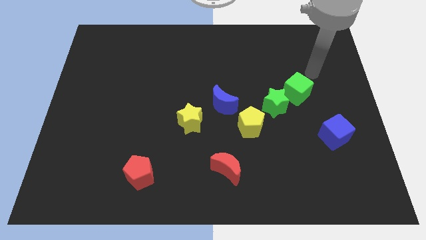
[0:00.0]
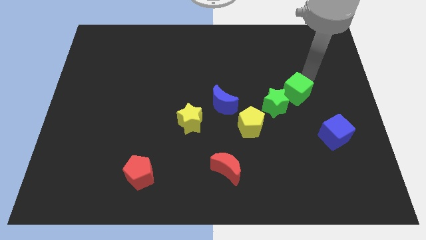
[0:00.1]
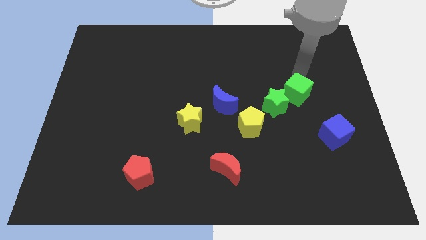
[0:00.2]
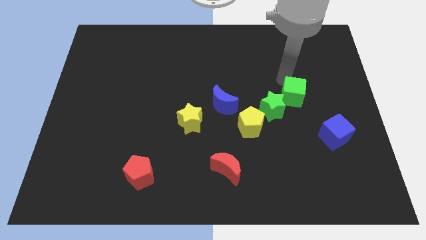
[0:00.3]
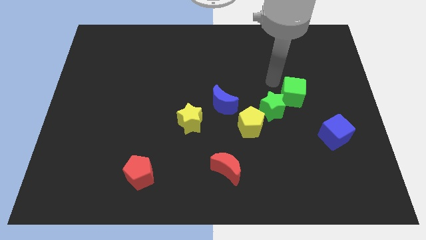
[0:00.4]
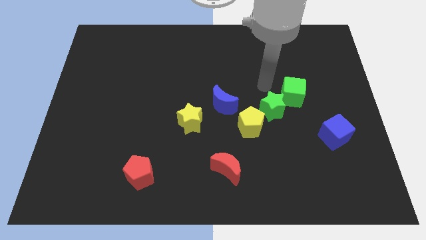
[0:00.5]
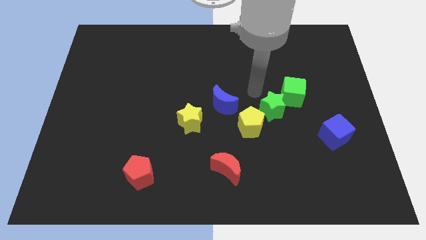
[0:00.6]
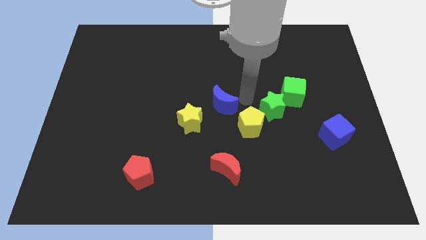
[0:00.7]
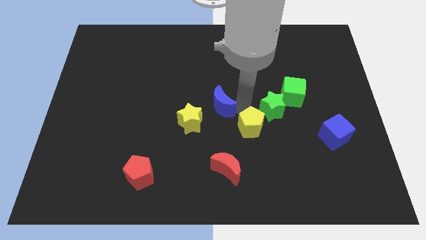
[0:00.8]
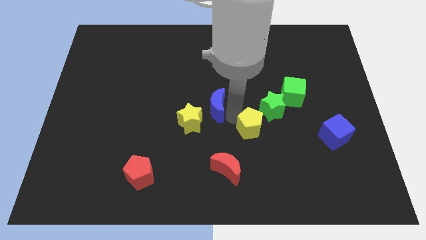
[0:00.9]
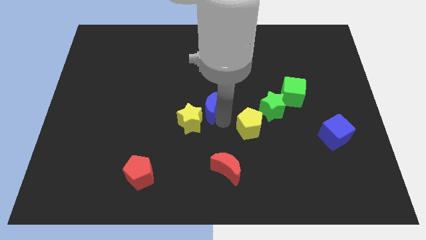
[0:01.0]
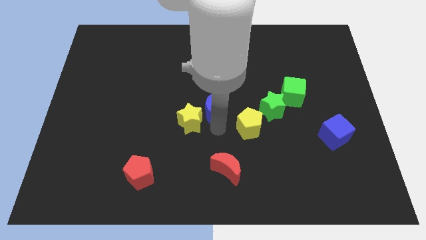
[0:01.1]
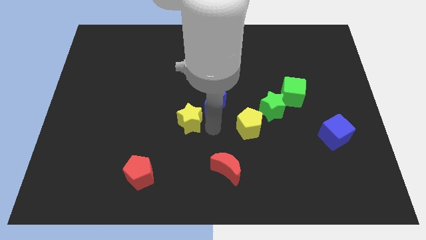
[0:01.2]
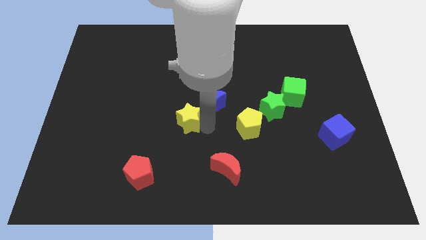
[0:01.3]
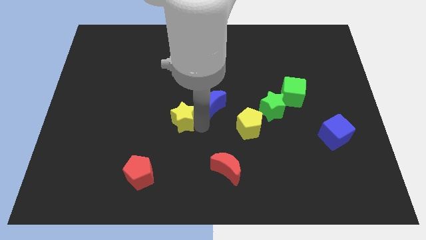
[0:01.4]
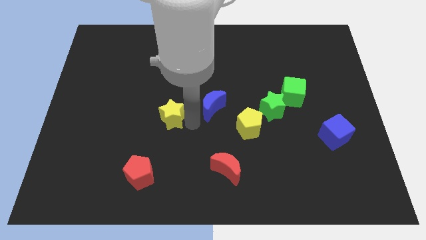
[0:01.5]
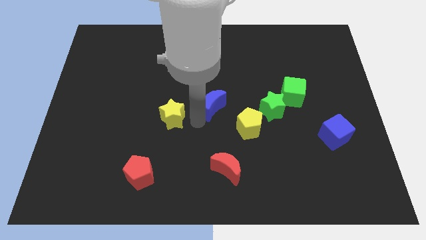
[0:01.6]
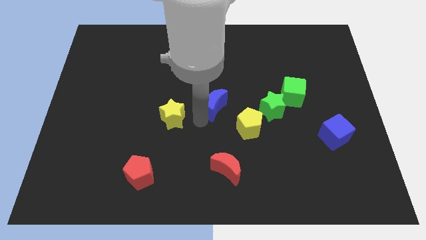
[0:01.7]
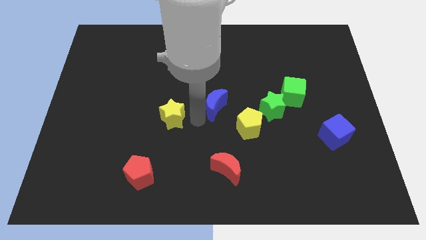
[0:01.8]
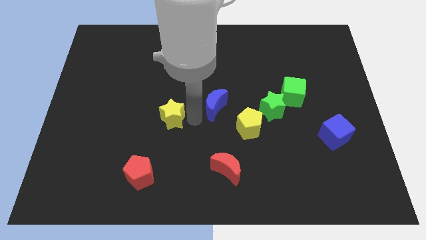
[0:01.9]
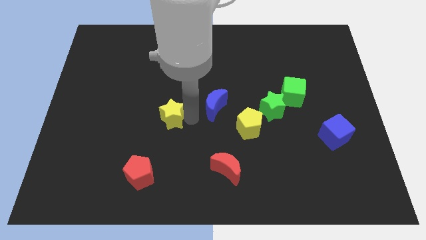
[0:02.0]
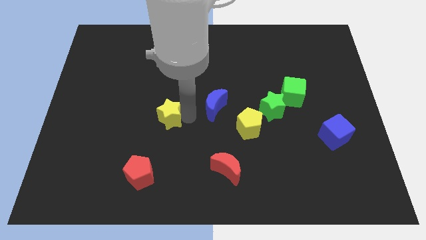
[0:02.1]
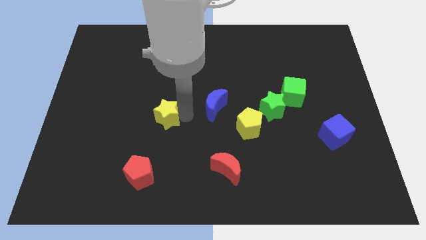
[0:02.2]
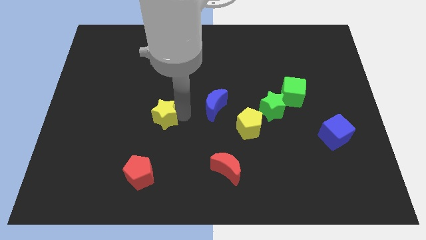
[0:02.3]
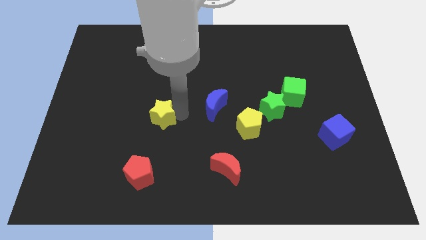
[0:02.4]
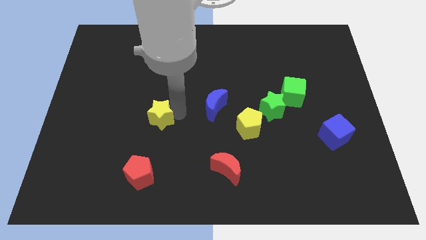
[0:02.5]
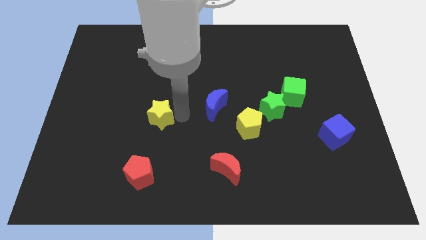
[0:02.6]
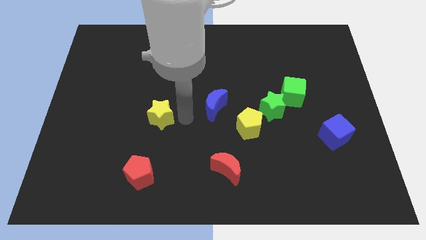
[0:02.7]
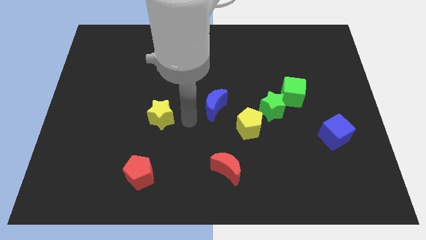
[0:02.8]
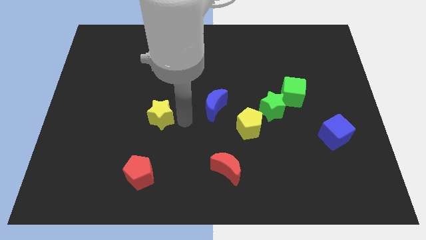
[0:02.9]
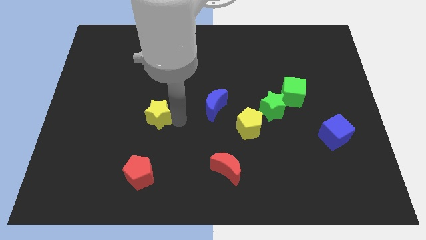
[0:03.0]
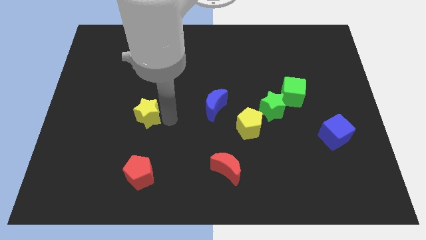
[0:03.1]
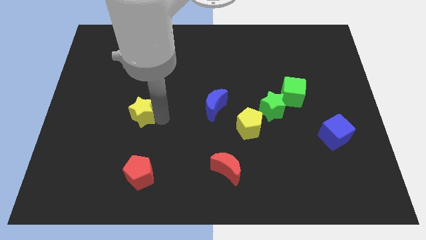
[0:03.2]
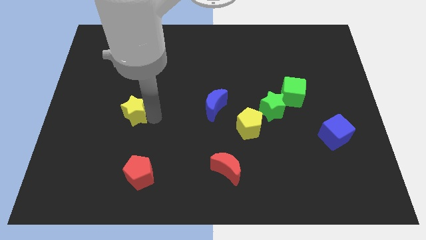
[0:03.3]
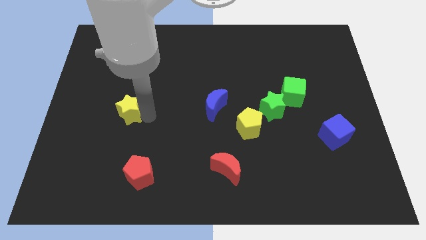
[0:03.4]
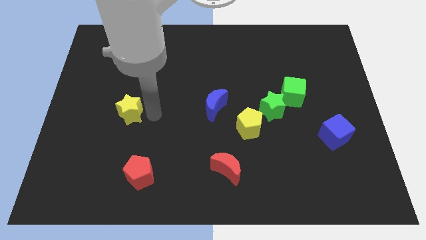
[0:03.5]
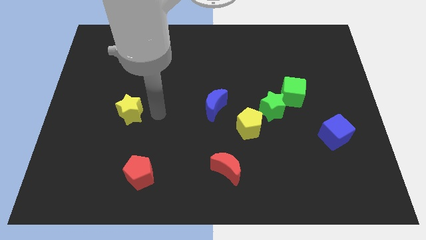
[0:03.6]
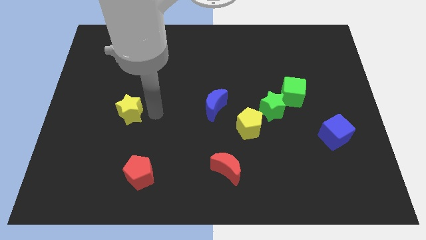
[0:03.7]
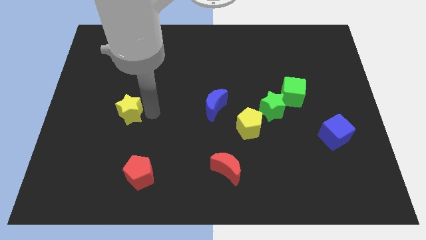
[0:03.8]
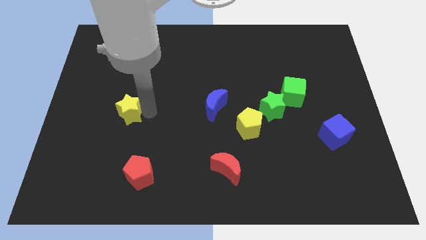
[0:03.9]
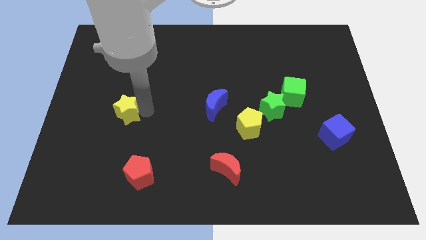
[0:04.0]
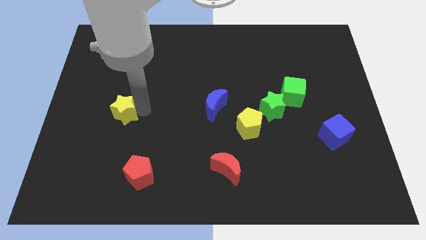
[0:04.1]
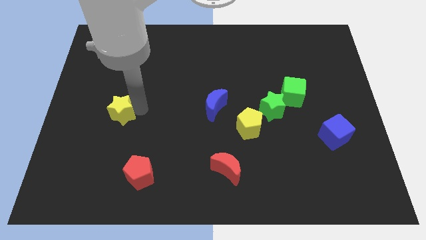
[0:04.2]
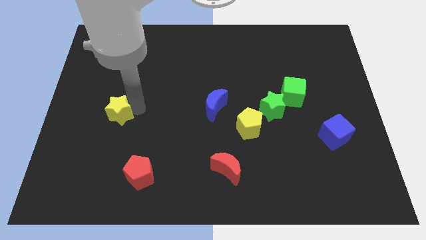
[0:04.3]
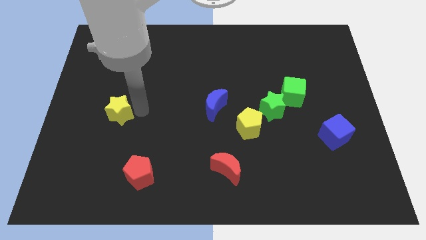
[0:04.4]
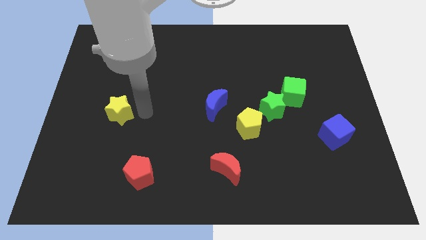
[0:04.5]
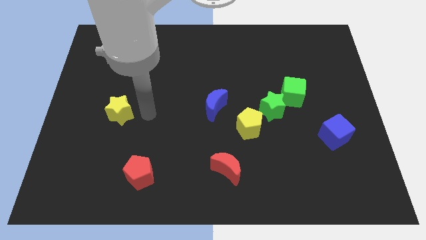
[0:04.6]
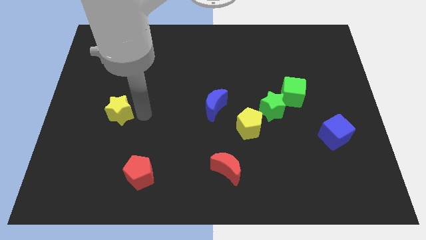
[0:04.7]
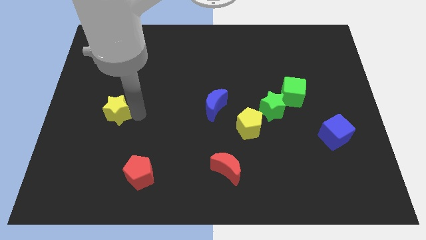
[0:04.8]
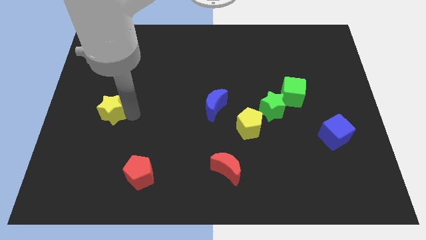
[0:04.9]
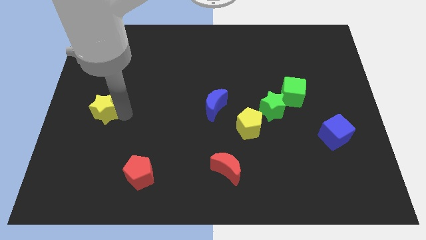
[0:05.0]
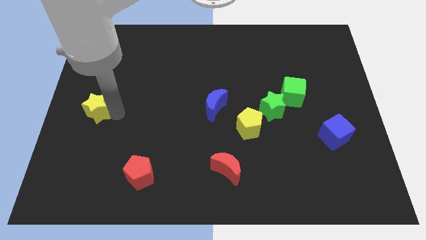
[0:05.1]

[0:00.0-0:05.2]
push the yellow star to the left side of the board

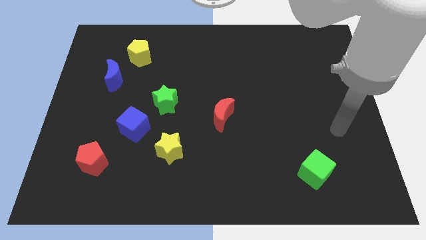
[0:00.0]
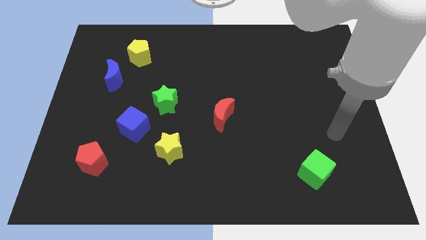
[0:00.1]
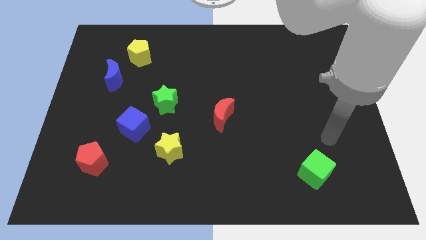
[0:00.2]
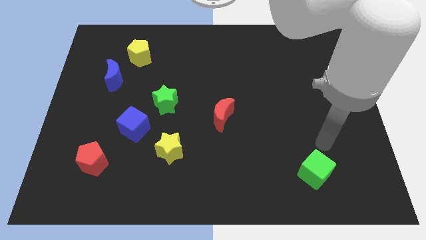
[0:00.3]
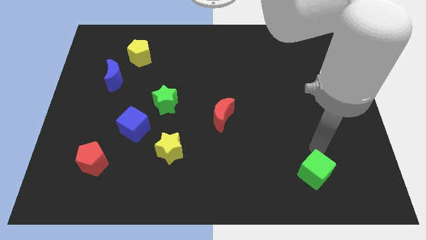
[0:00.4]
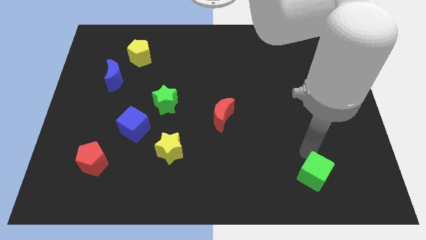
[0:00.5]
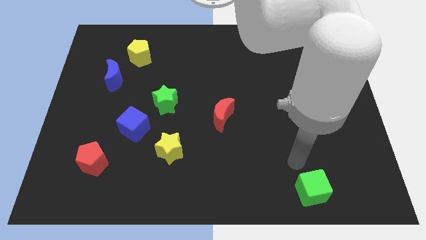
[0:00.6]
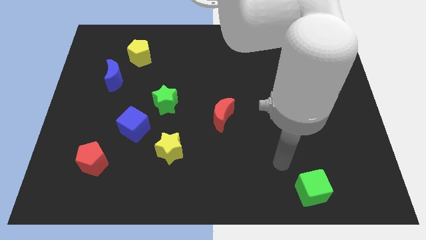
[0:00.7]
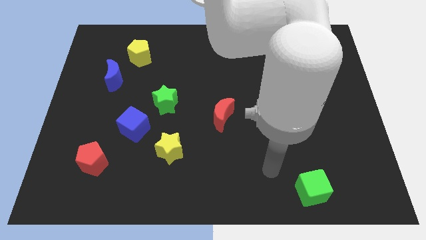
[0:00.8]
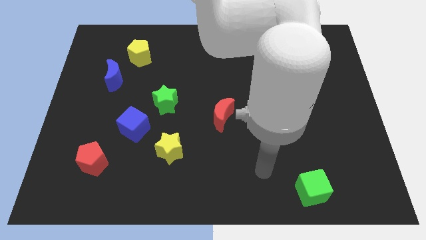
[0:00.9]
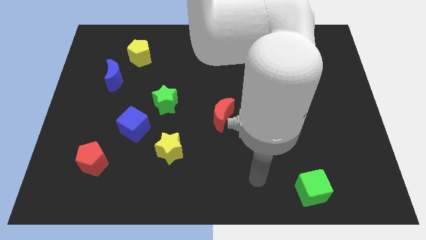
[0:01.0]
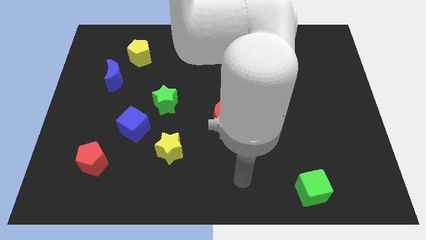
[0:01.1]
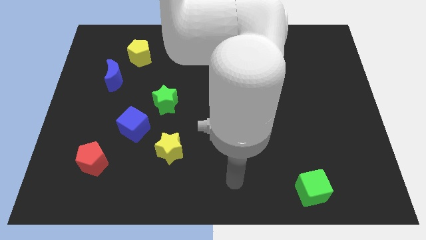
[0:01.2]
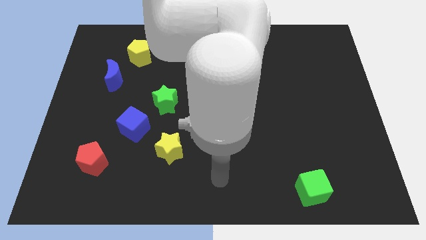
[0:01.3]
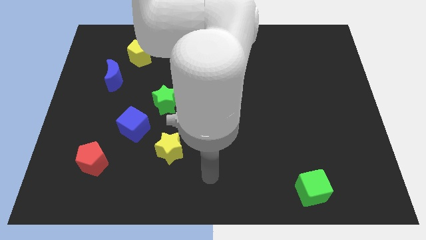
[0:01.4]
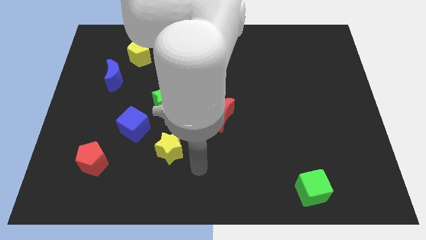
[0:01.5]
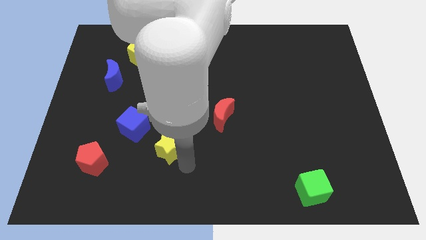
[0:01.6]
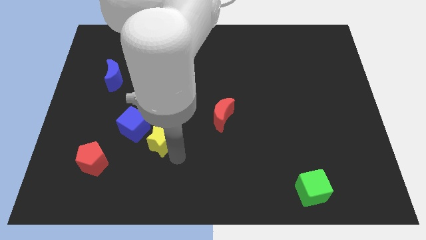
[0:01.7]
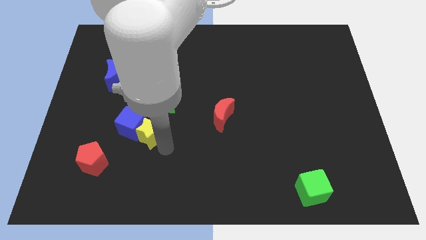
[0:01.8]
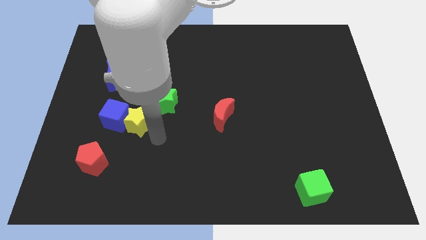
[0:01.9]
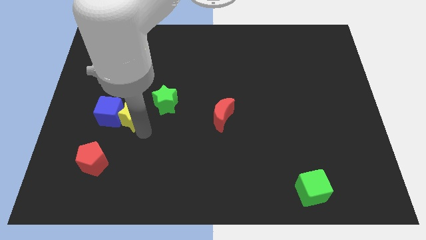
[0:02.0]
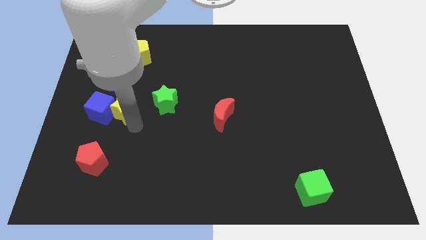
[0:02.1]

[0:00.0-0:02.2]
slide the blue cube to the center left
